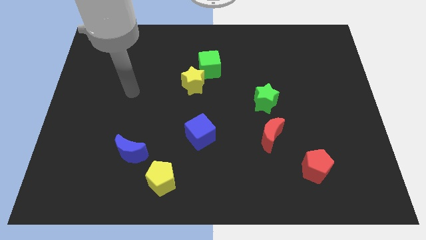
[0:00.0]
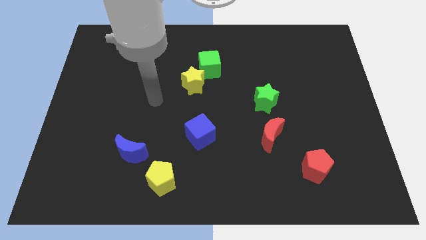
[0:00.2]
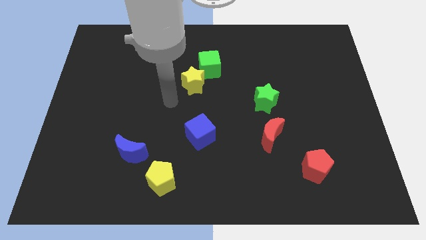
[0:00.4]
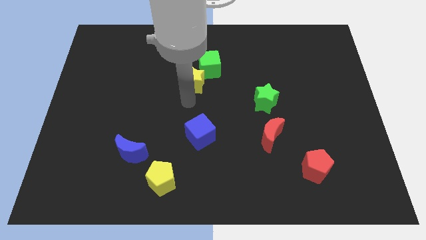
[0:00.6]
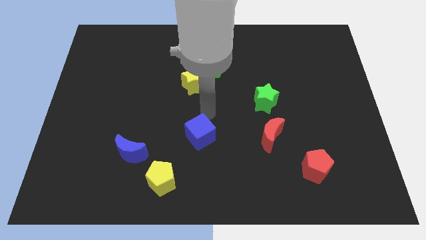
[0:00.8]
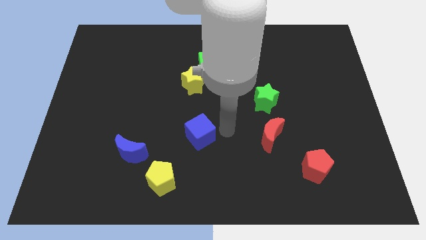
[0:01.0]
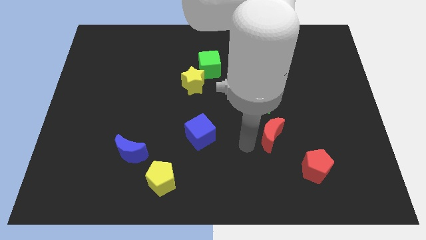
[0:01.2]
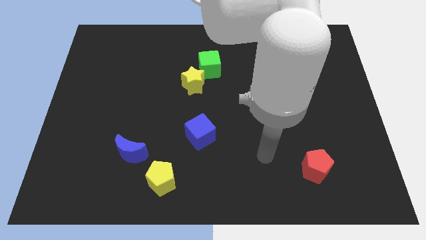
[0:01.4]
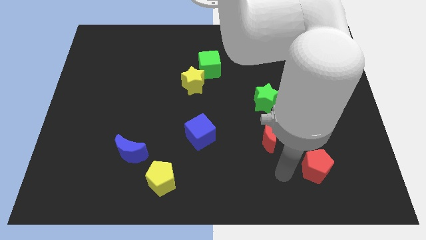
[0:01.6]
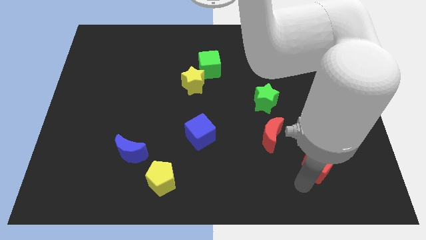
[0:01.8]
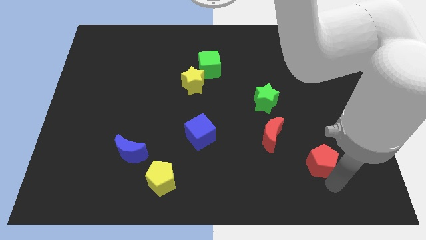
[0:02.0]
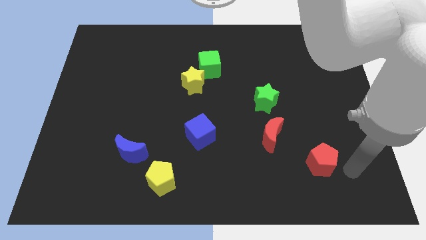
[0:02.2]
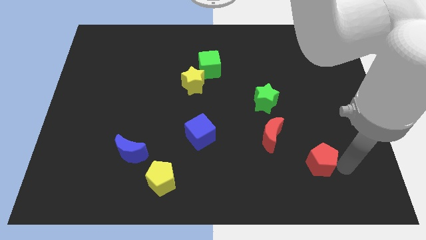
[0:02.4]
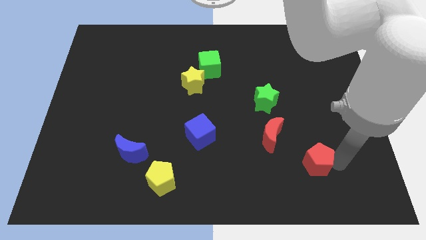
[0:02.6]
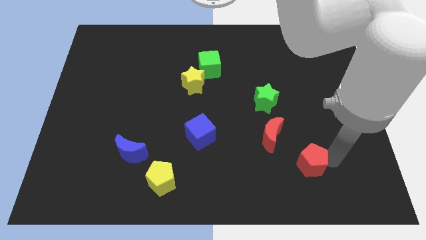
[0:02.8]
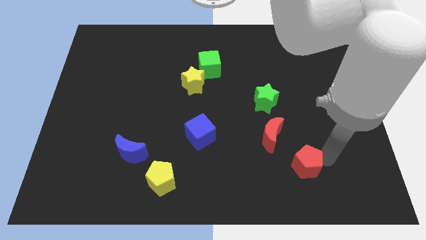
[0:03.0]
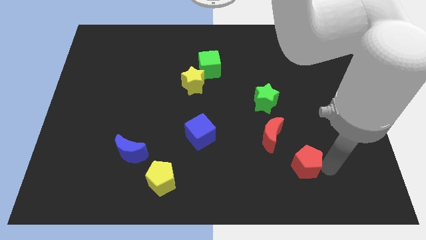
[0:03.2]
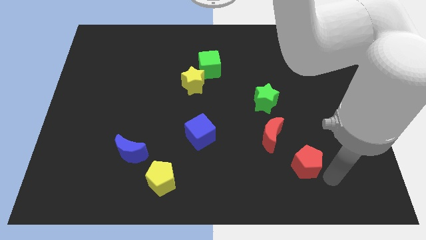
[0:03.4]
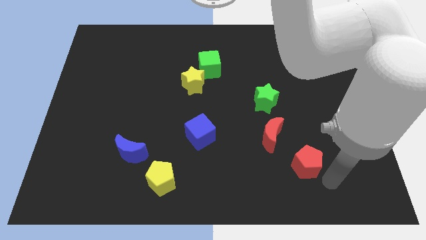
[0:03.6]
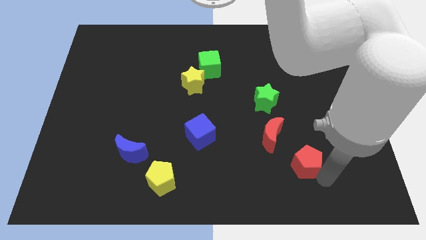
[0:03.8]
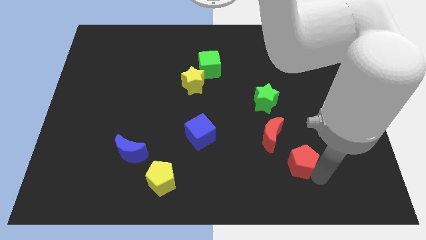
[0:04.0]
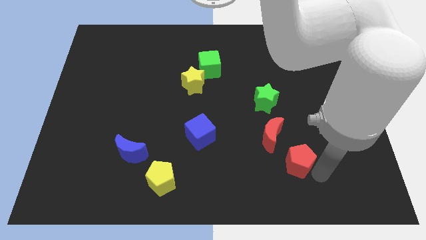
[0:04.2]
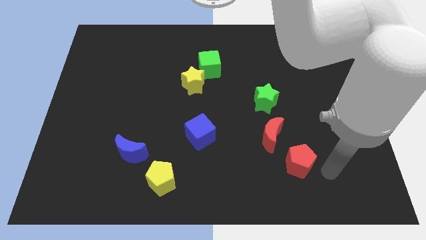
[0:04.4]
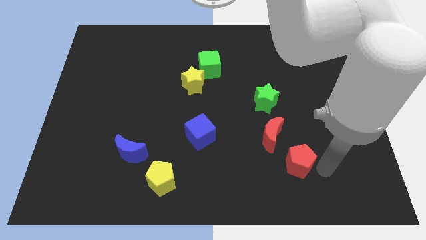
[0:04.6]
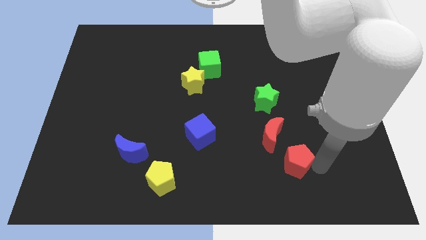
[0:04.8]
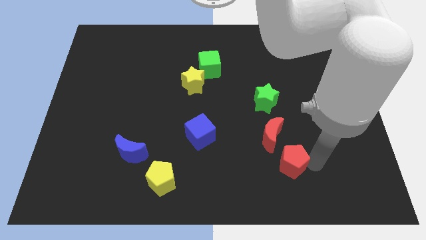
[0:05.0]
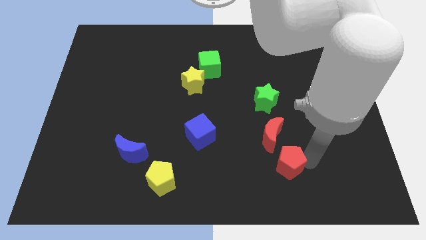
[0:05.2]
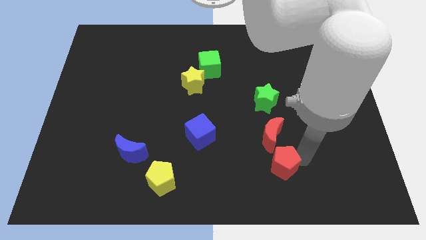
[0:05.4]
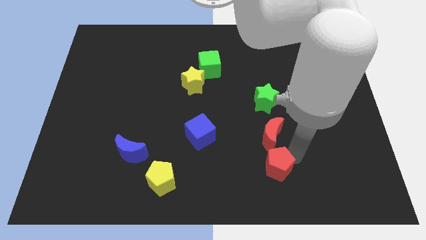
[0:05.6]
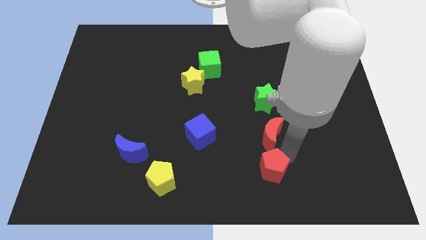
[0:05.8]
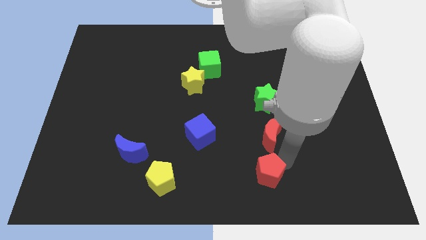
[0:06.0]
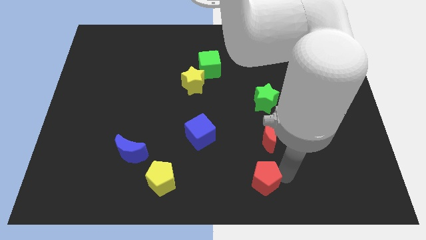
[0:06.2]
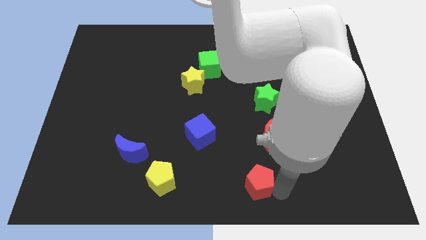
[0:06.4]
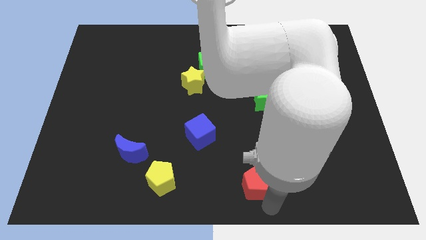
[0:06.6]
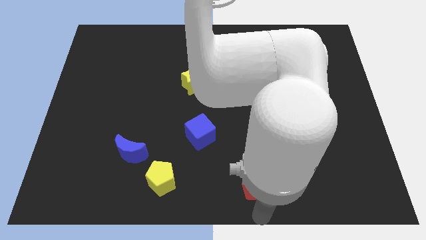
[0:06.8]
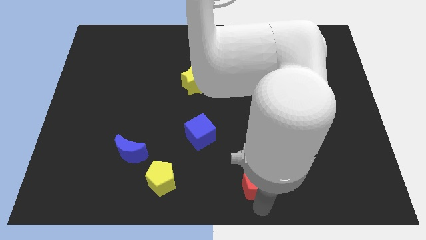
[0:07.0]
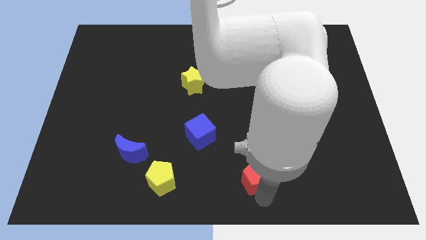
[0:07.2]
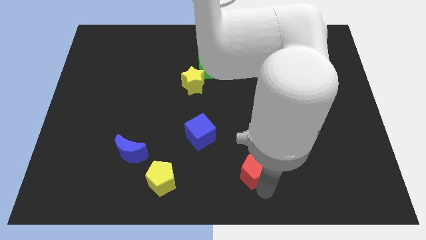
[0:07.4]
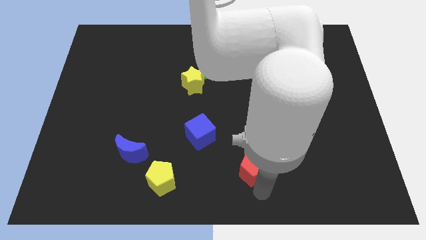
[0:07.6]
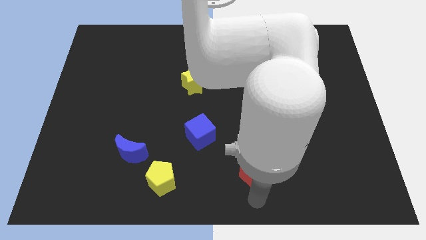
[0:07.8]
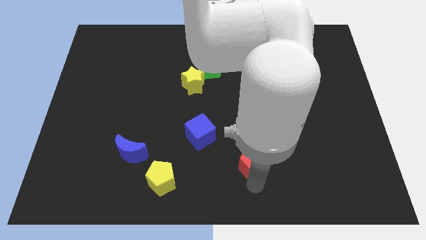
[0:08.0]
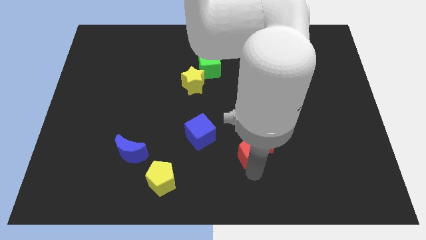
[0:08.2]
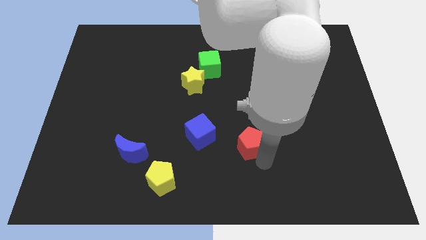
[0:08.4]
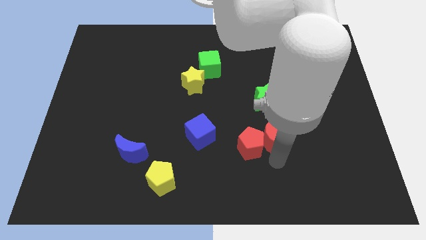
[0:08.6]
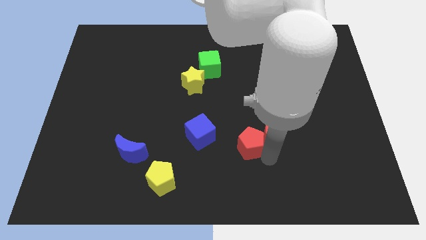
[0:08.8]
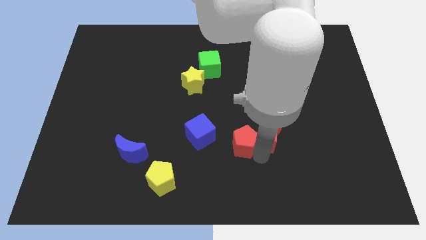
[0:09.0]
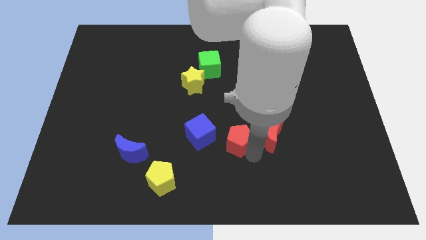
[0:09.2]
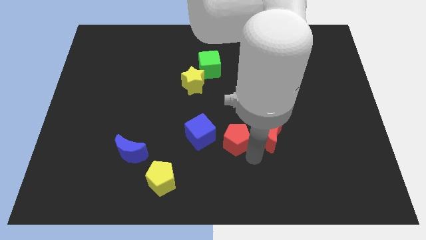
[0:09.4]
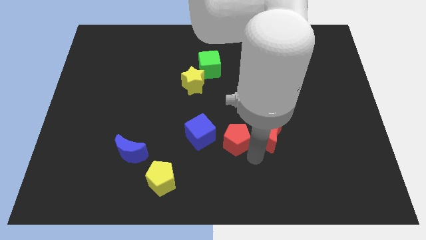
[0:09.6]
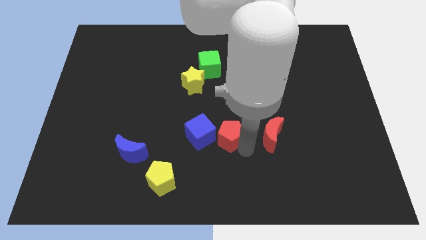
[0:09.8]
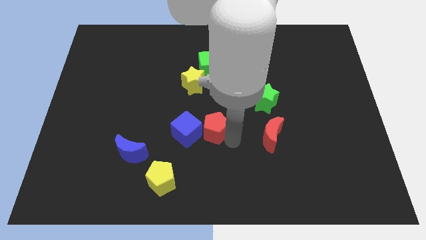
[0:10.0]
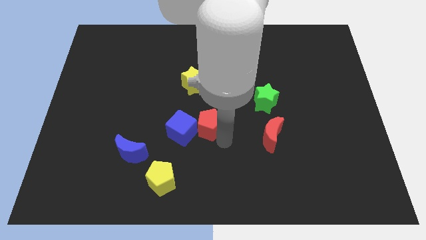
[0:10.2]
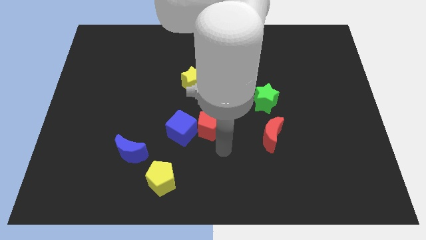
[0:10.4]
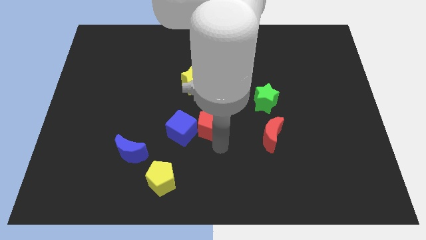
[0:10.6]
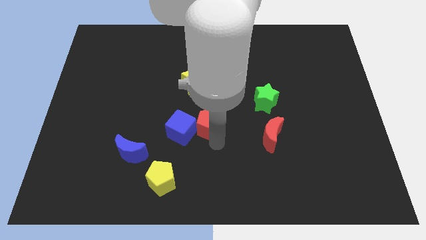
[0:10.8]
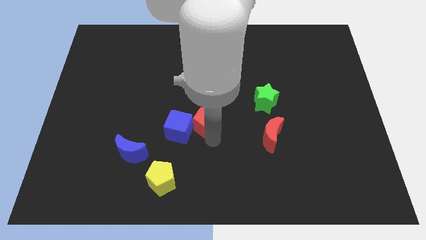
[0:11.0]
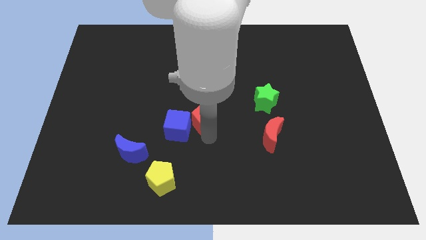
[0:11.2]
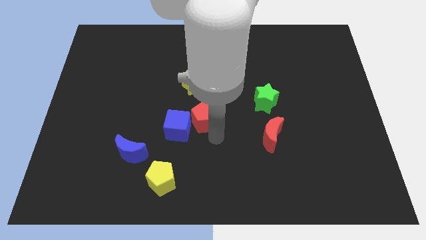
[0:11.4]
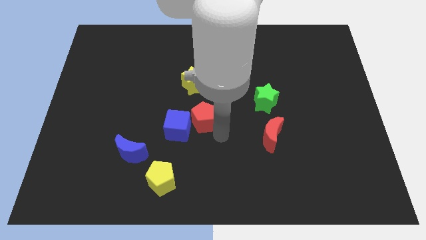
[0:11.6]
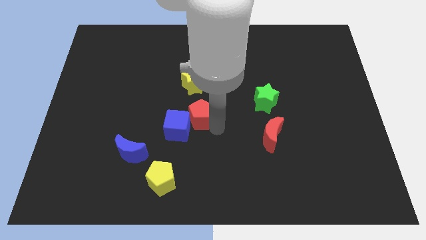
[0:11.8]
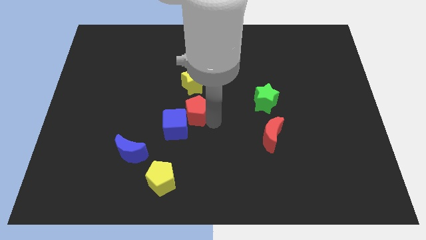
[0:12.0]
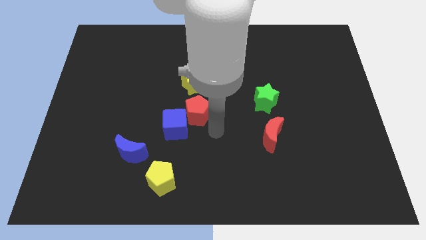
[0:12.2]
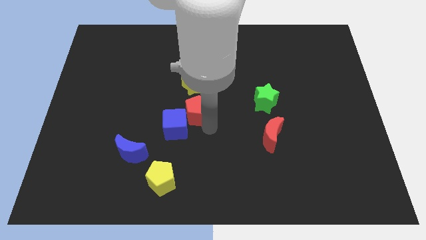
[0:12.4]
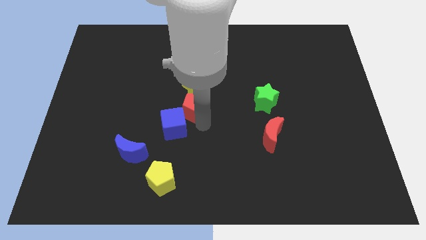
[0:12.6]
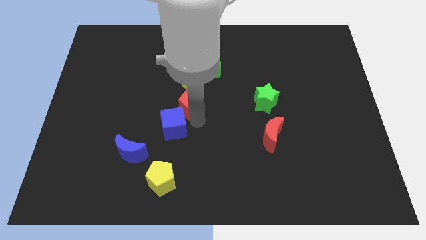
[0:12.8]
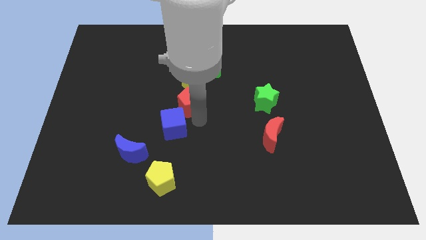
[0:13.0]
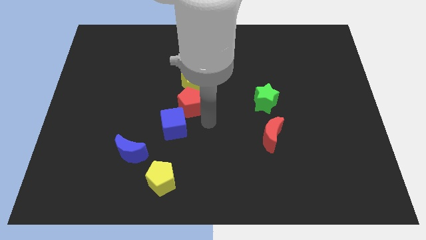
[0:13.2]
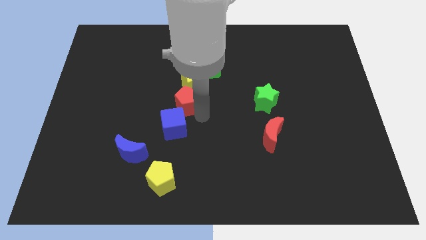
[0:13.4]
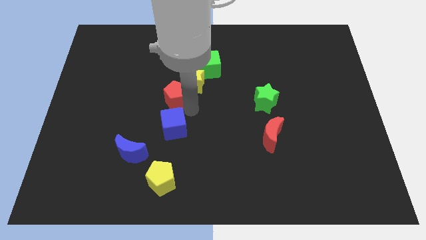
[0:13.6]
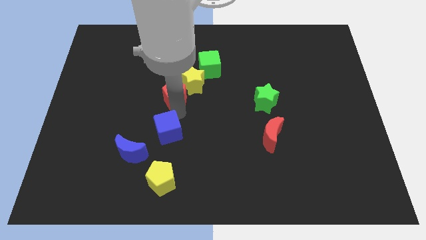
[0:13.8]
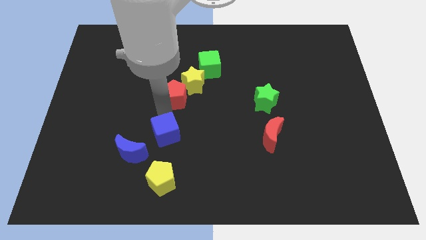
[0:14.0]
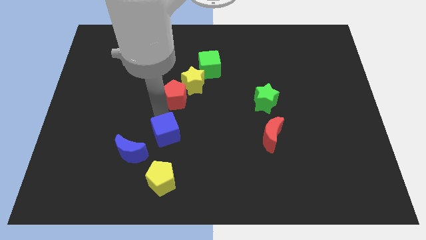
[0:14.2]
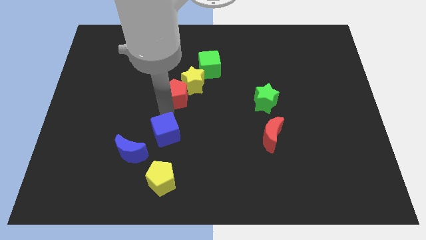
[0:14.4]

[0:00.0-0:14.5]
move the red pentagon to the bottom left of the green cube
